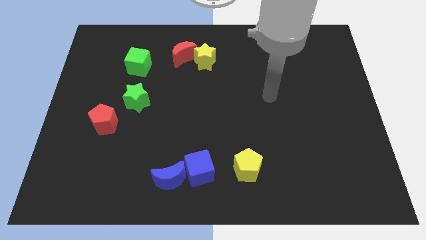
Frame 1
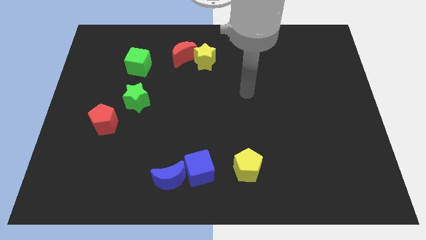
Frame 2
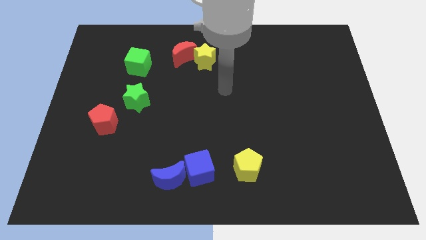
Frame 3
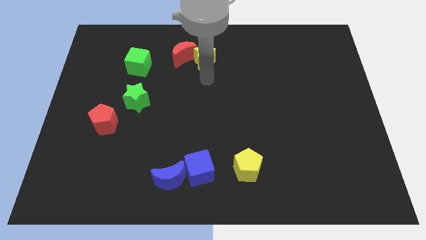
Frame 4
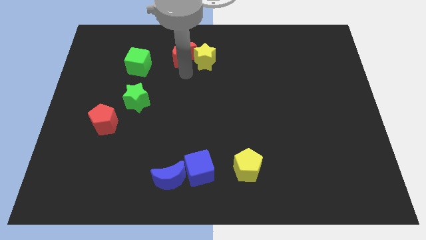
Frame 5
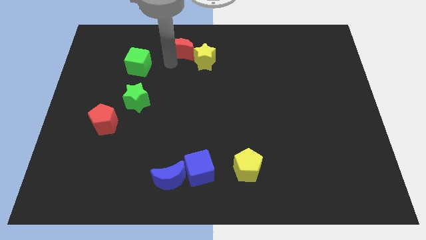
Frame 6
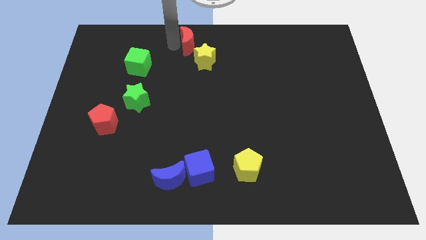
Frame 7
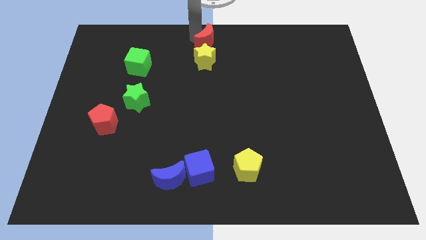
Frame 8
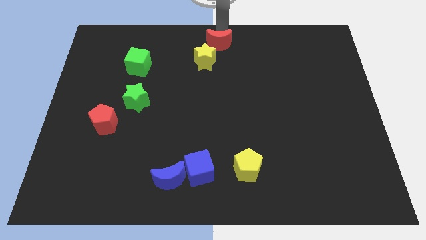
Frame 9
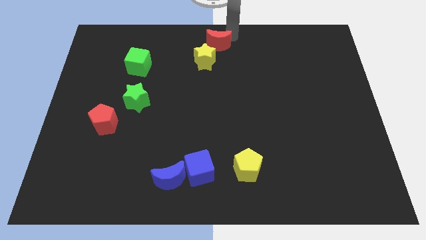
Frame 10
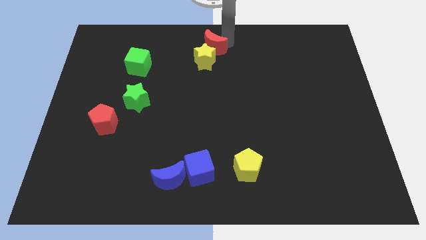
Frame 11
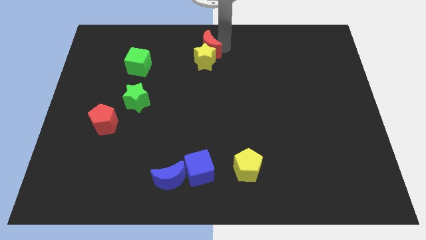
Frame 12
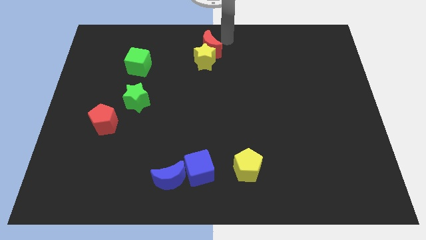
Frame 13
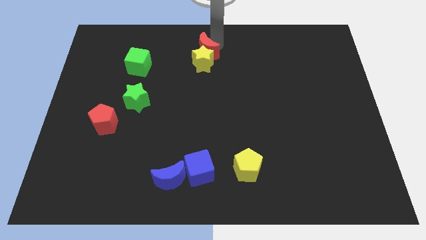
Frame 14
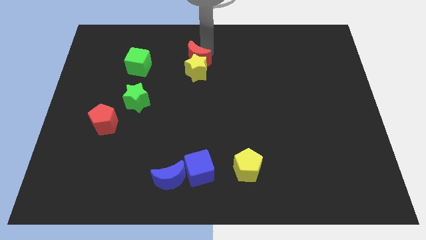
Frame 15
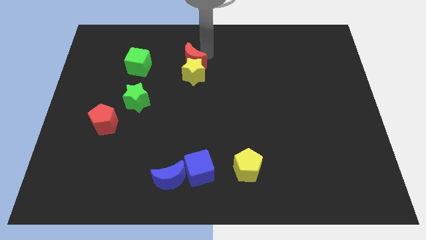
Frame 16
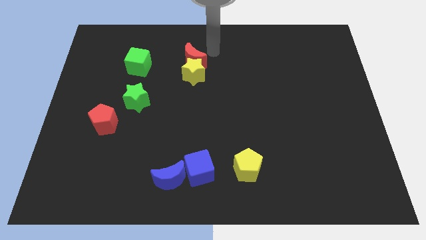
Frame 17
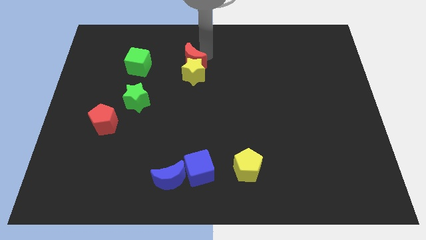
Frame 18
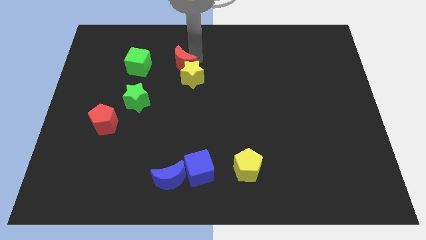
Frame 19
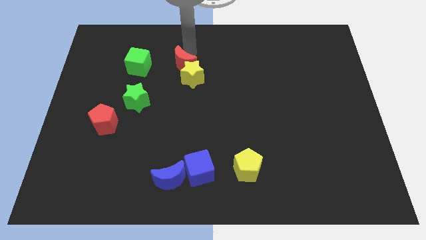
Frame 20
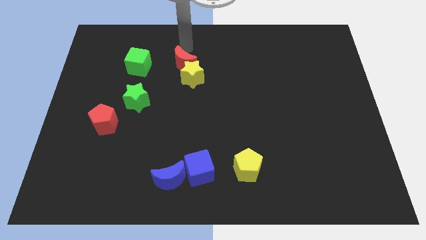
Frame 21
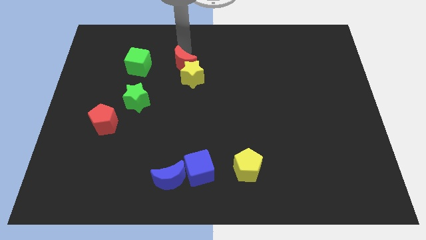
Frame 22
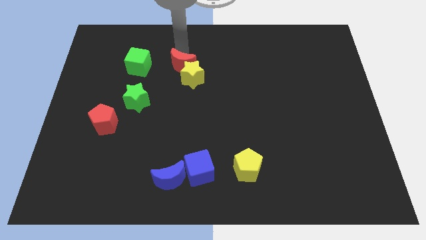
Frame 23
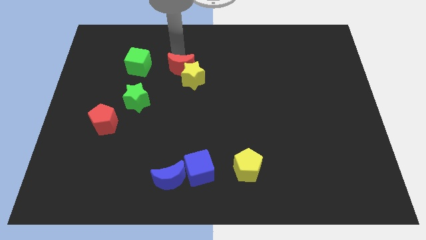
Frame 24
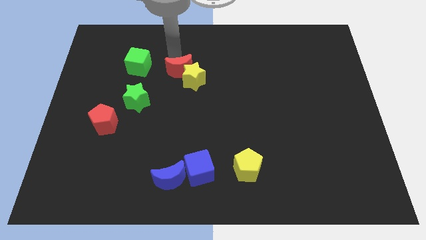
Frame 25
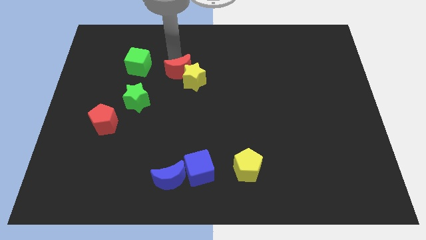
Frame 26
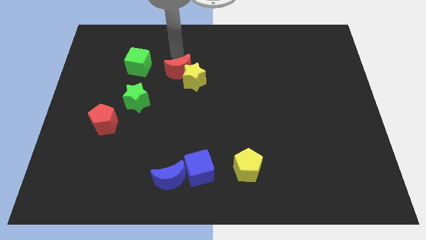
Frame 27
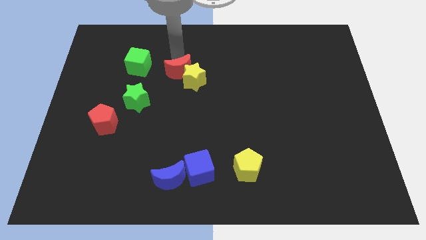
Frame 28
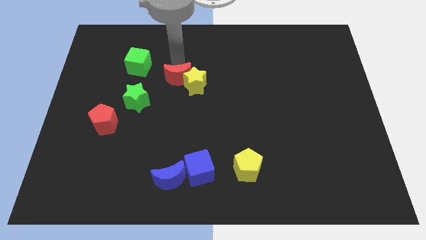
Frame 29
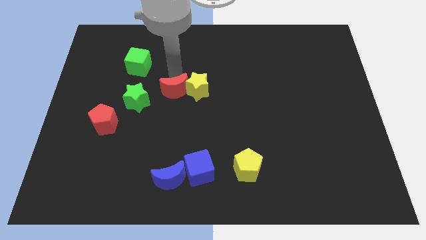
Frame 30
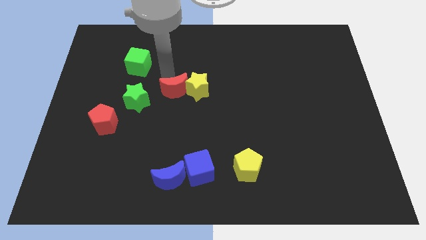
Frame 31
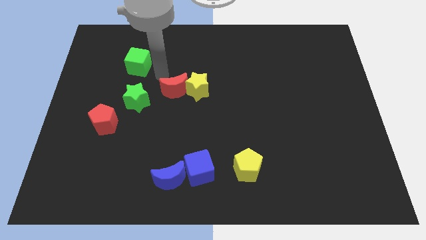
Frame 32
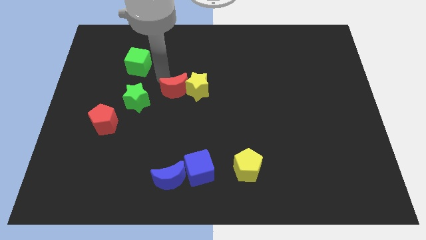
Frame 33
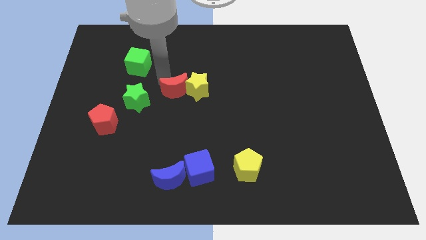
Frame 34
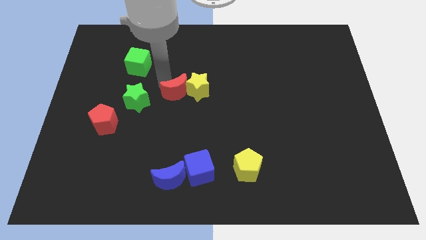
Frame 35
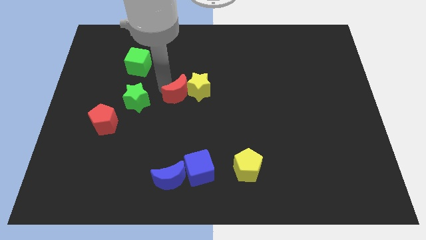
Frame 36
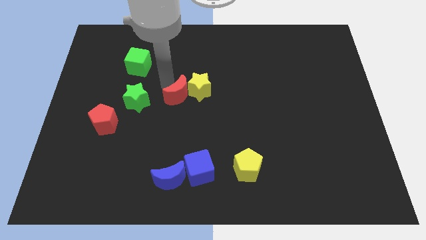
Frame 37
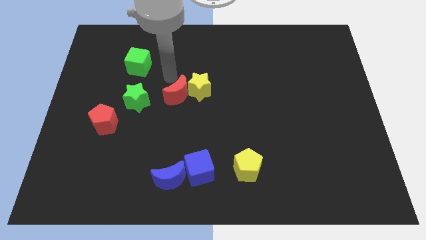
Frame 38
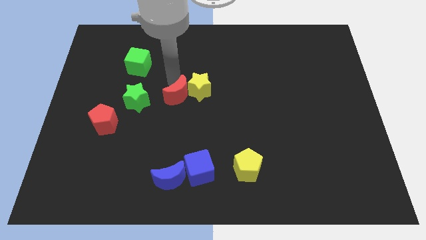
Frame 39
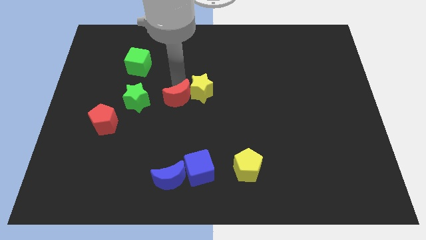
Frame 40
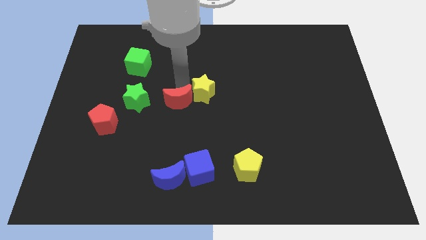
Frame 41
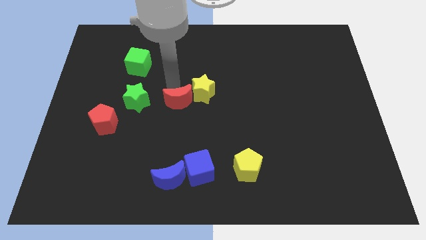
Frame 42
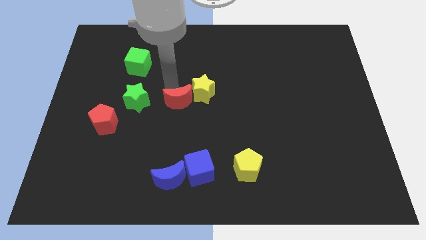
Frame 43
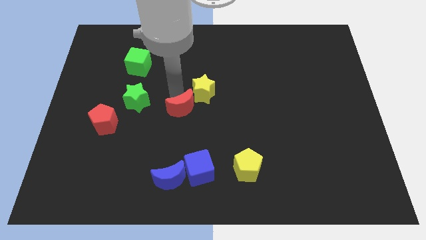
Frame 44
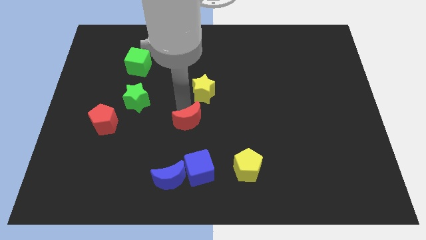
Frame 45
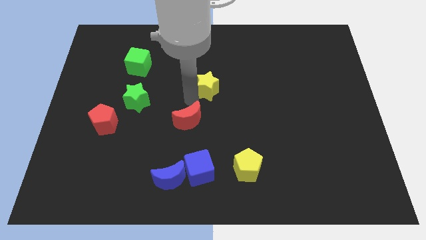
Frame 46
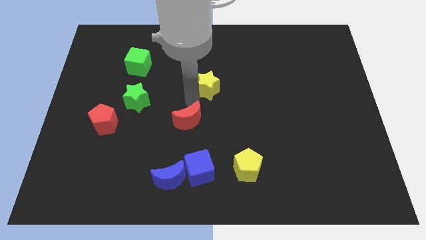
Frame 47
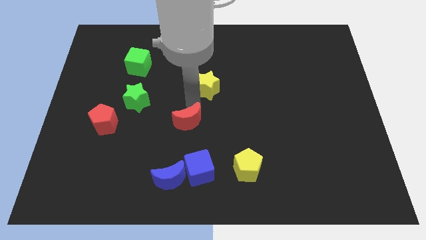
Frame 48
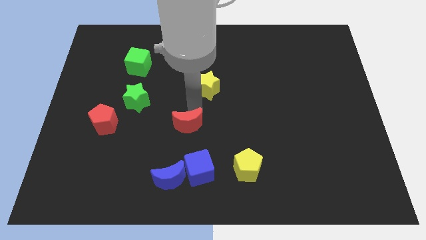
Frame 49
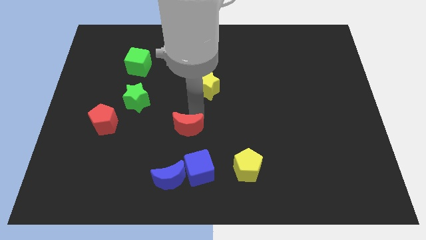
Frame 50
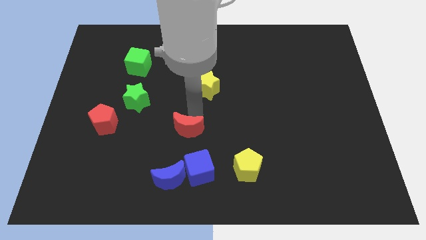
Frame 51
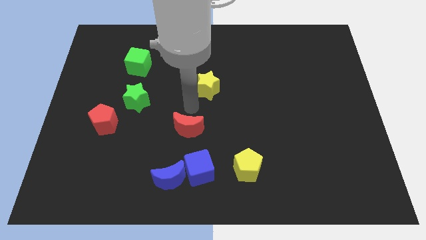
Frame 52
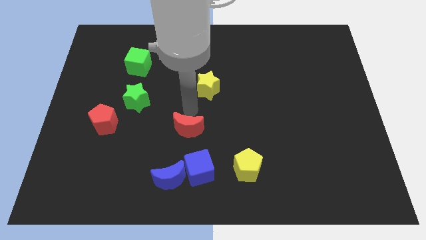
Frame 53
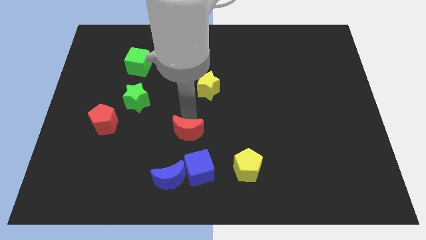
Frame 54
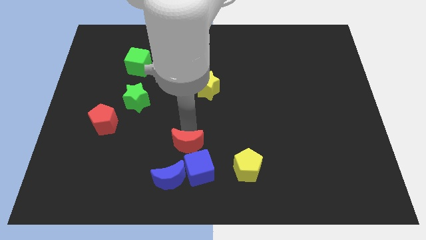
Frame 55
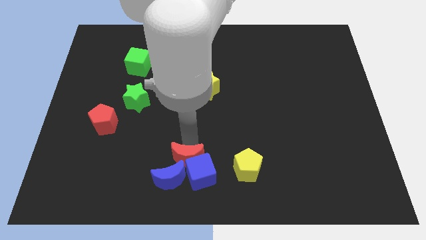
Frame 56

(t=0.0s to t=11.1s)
move the red moon next to the blue moon

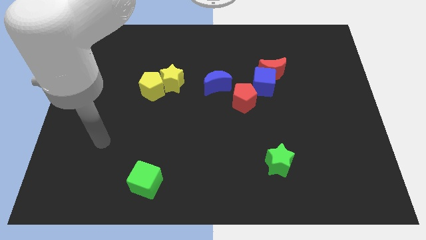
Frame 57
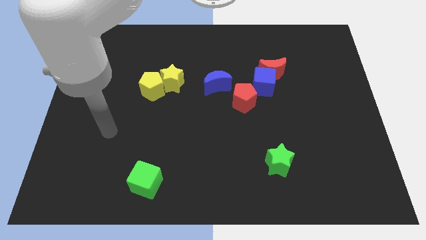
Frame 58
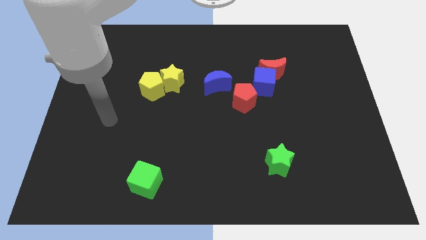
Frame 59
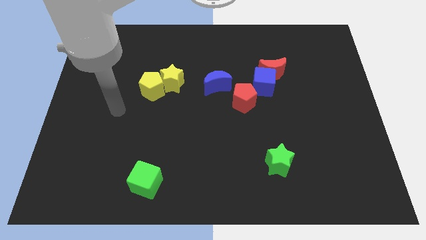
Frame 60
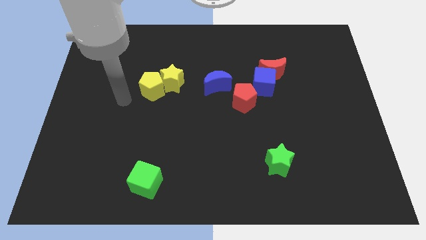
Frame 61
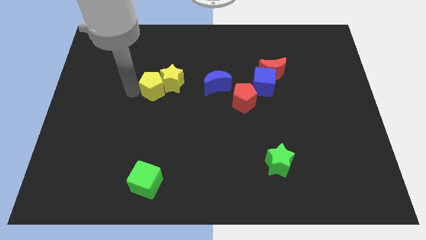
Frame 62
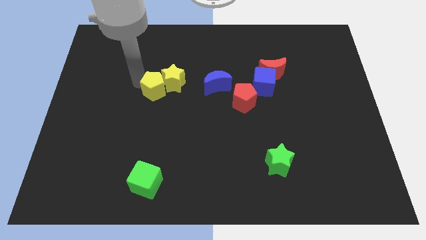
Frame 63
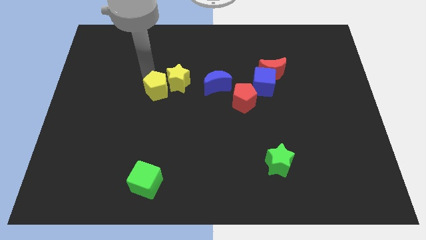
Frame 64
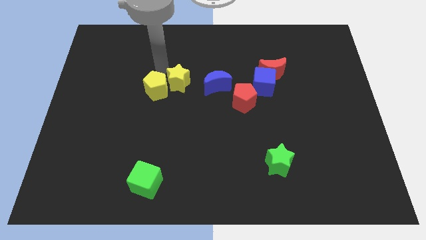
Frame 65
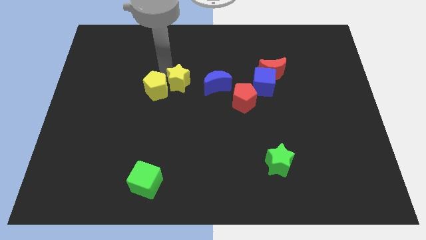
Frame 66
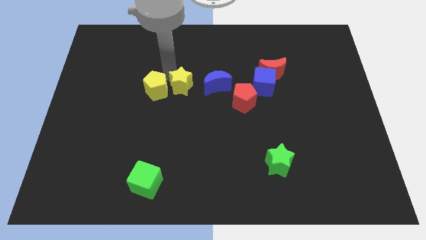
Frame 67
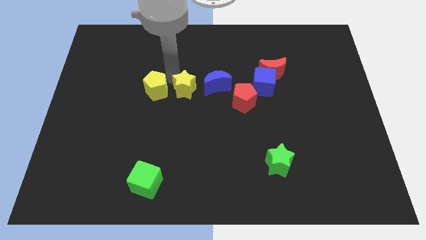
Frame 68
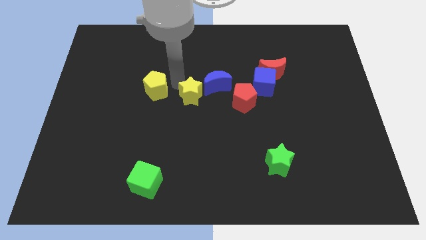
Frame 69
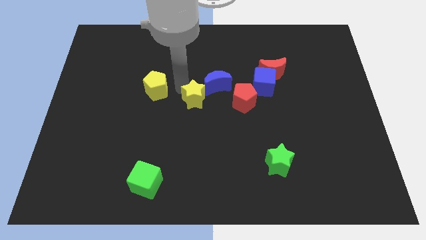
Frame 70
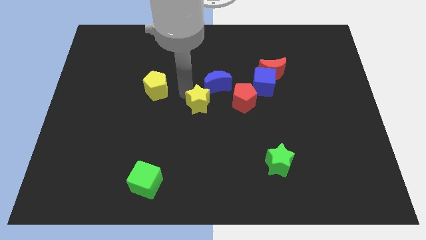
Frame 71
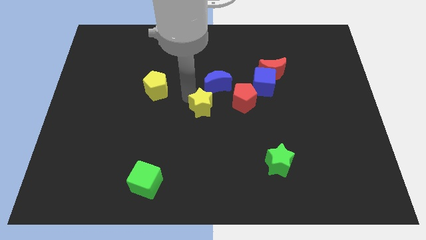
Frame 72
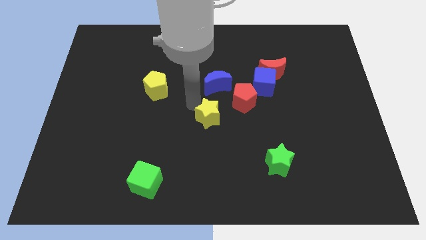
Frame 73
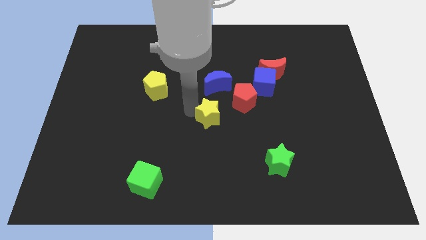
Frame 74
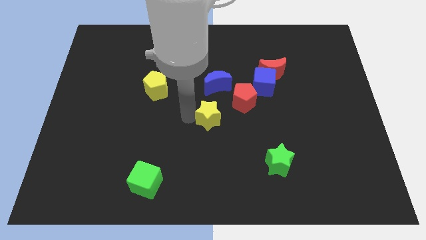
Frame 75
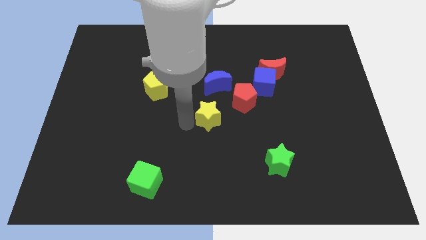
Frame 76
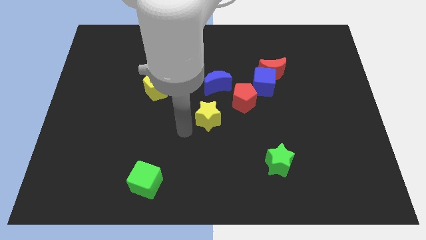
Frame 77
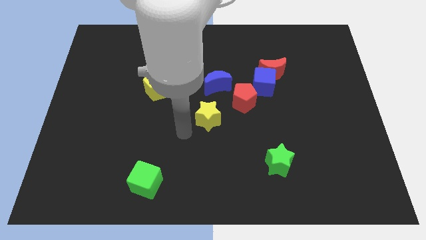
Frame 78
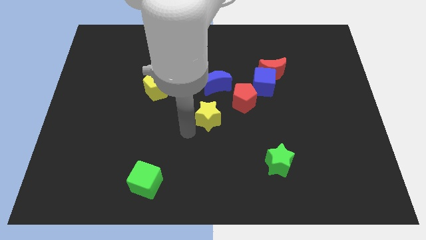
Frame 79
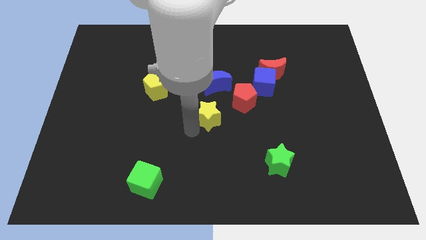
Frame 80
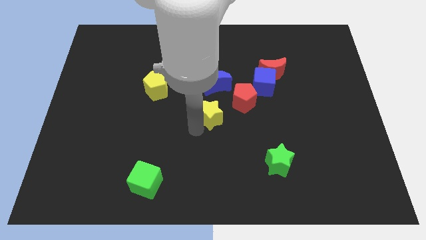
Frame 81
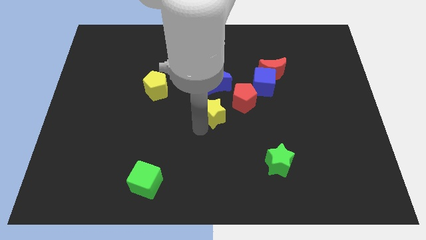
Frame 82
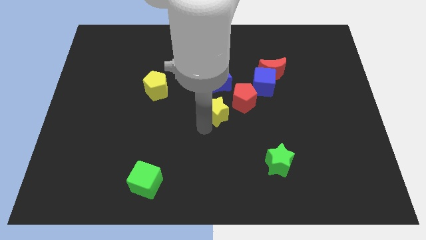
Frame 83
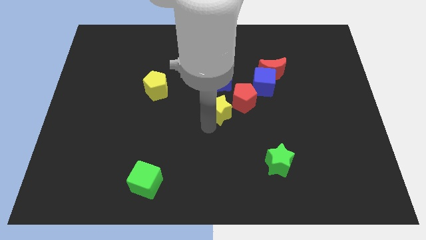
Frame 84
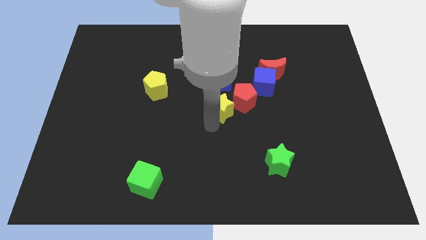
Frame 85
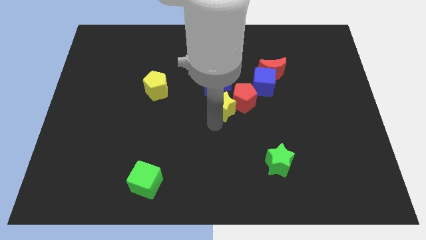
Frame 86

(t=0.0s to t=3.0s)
slide the yellow star next to the red pentagon
